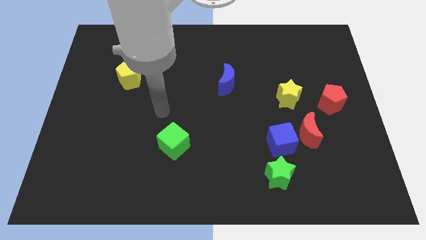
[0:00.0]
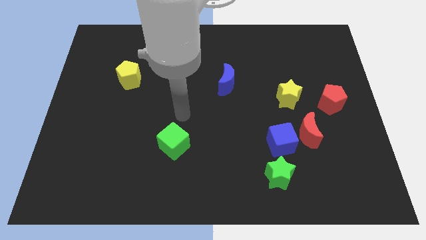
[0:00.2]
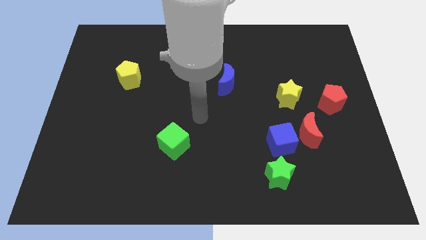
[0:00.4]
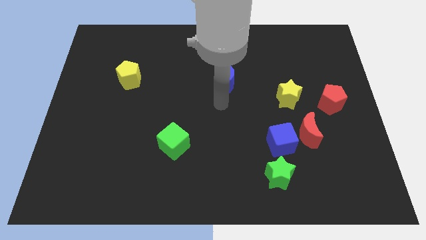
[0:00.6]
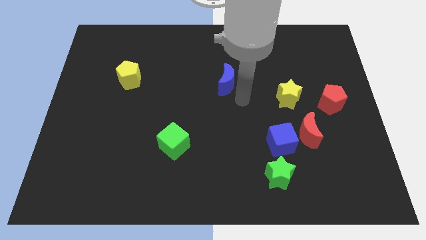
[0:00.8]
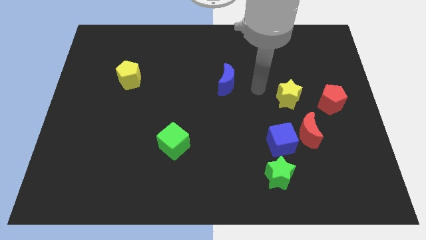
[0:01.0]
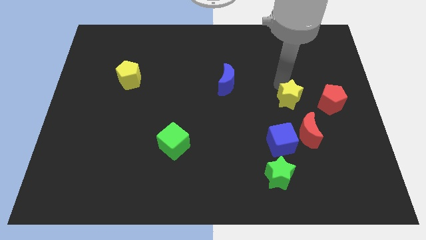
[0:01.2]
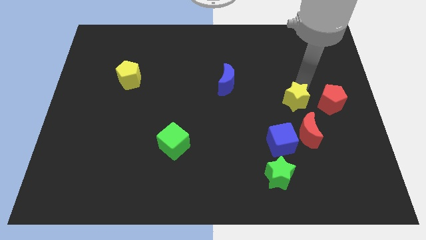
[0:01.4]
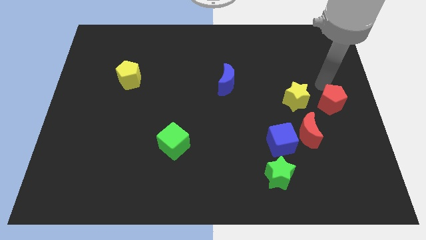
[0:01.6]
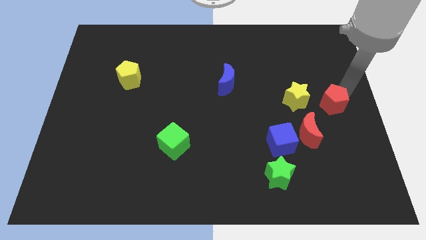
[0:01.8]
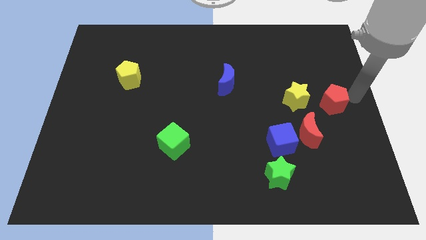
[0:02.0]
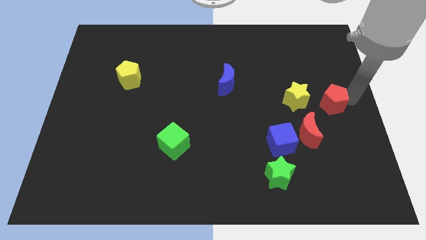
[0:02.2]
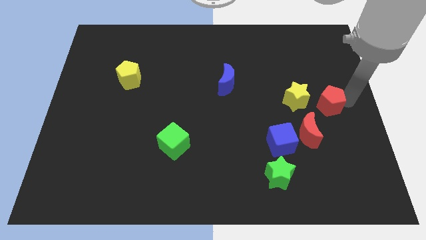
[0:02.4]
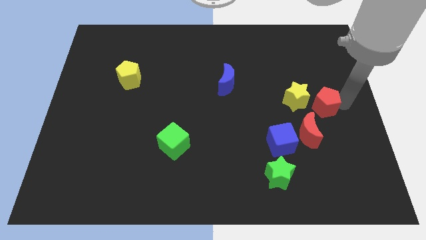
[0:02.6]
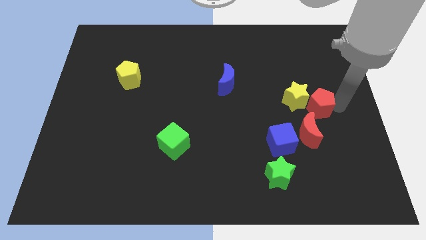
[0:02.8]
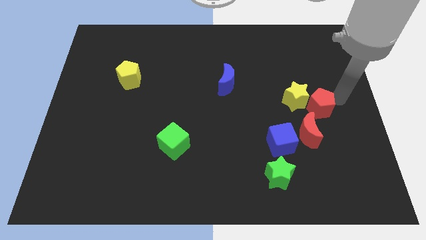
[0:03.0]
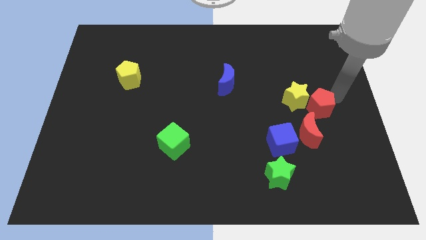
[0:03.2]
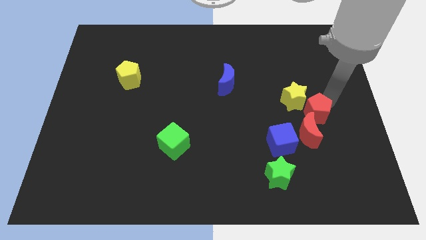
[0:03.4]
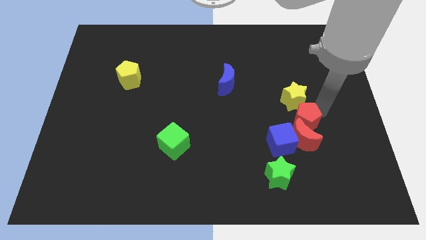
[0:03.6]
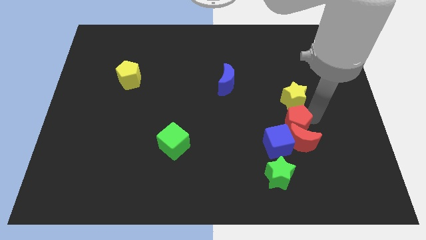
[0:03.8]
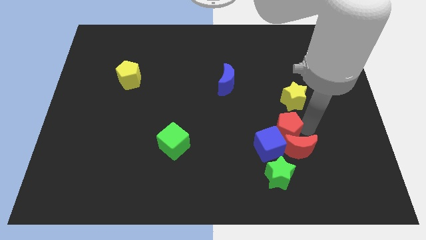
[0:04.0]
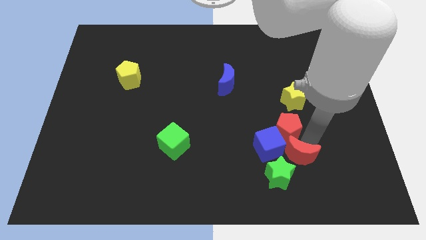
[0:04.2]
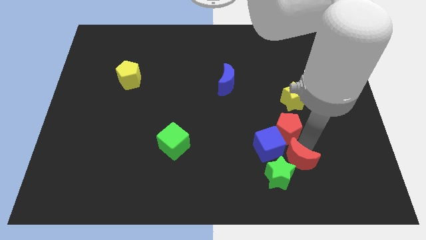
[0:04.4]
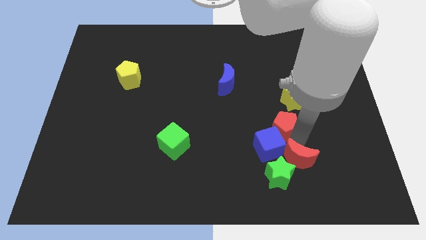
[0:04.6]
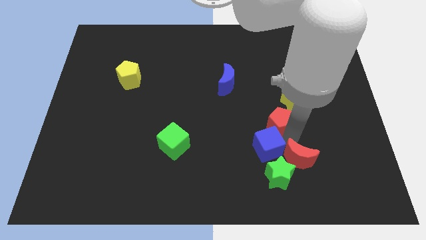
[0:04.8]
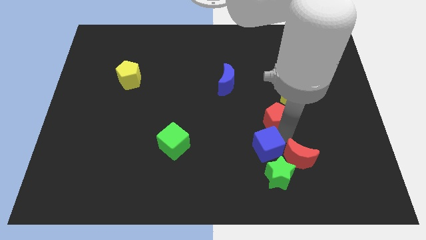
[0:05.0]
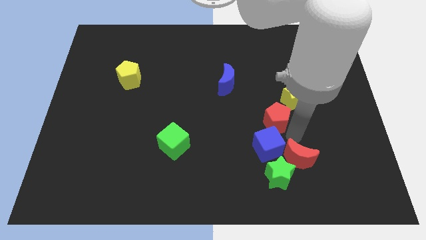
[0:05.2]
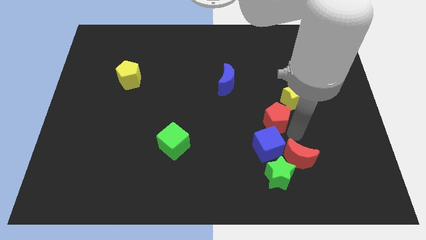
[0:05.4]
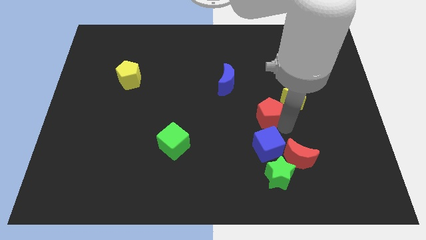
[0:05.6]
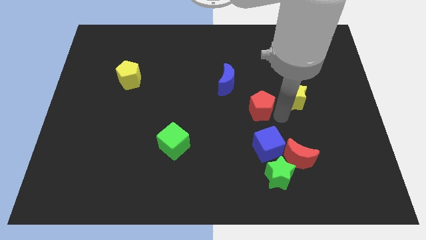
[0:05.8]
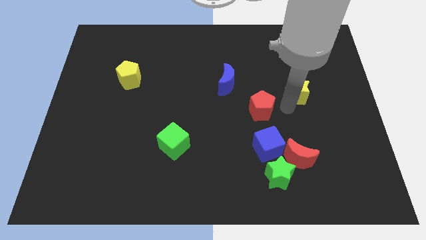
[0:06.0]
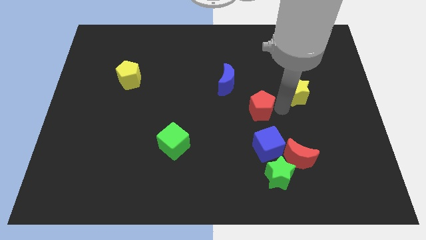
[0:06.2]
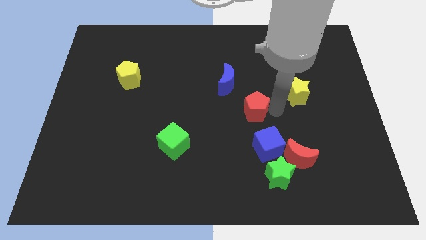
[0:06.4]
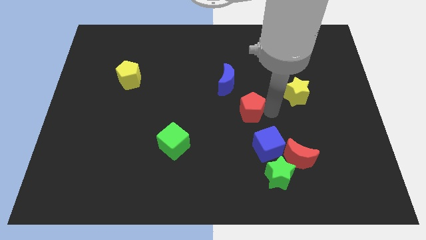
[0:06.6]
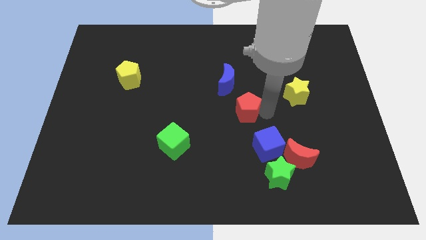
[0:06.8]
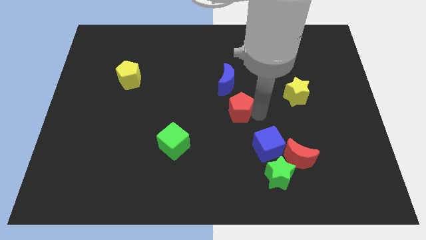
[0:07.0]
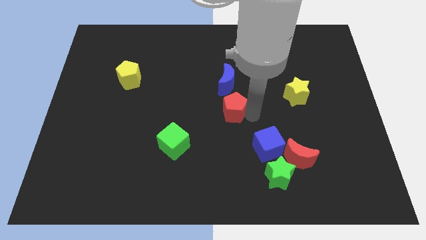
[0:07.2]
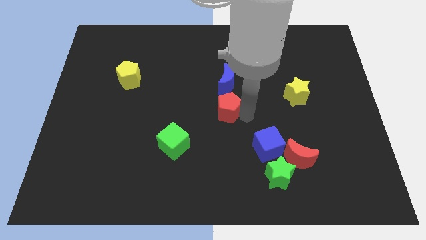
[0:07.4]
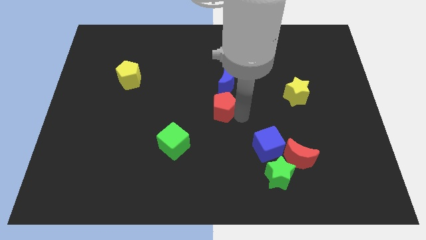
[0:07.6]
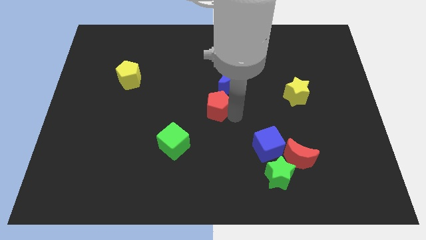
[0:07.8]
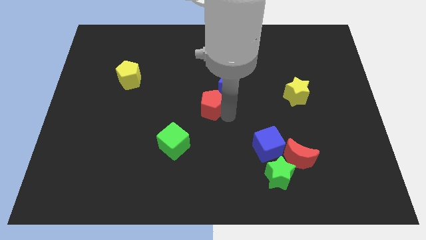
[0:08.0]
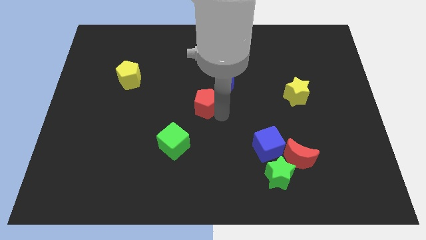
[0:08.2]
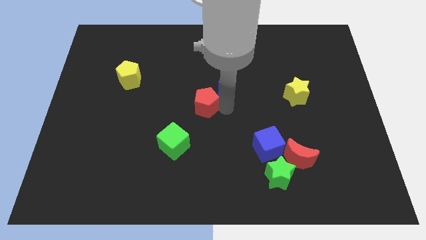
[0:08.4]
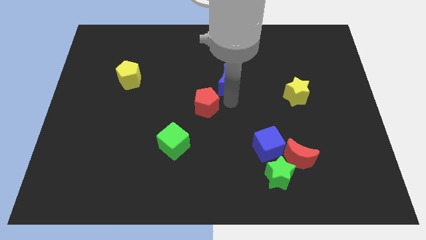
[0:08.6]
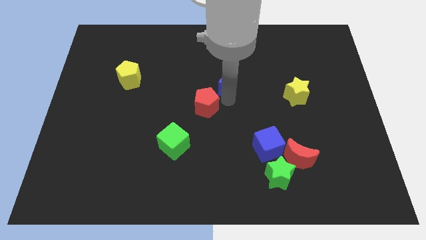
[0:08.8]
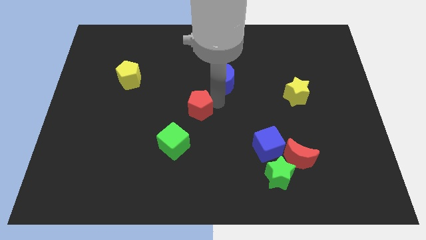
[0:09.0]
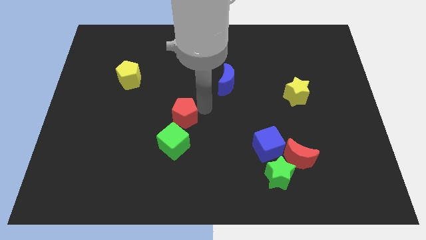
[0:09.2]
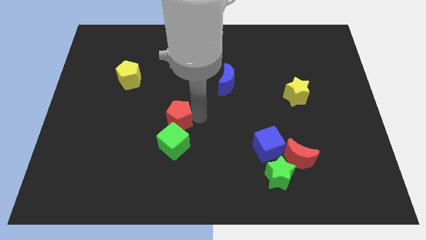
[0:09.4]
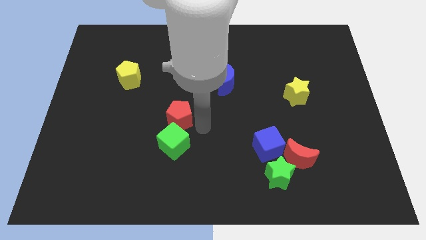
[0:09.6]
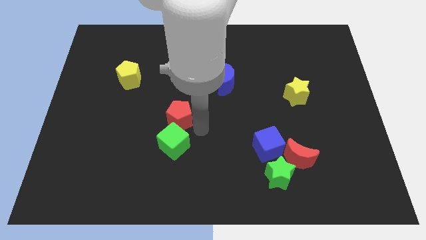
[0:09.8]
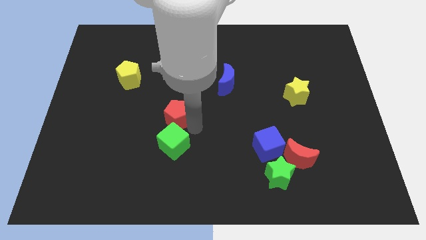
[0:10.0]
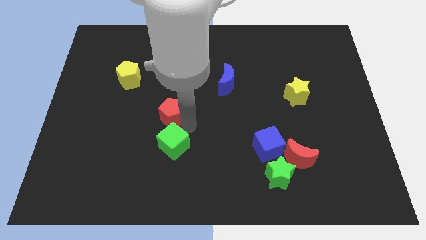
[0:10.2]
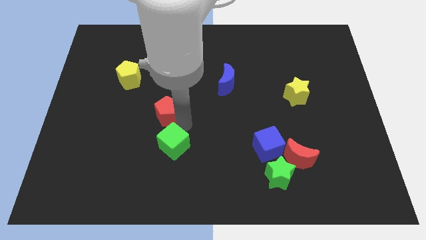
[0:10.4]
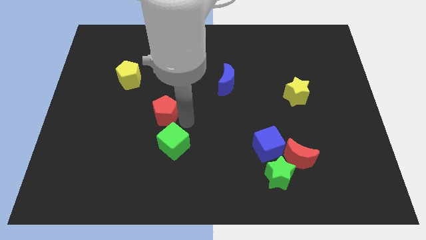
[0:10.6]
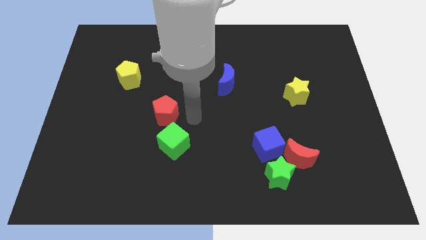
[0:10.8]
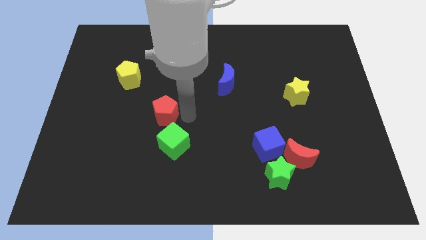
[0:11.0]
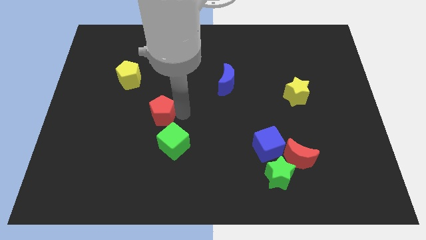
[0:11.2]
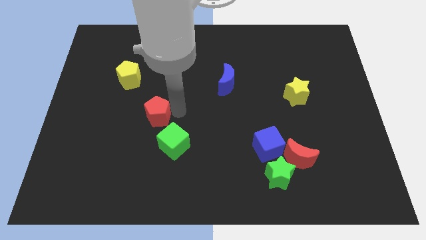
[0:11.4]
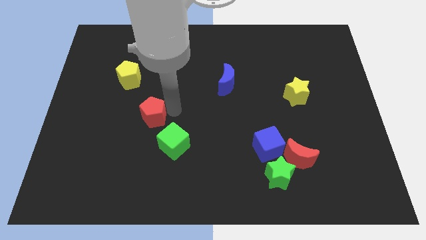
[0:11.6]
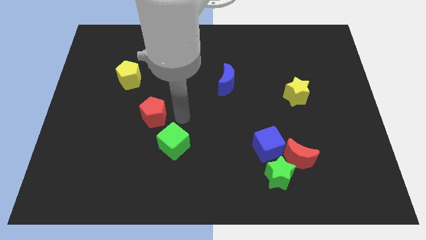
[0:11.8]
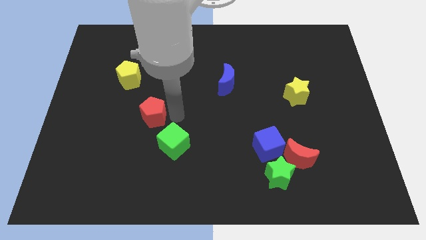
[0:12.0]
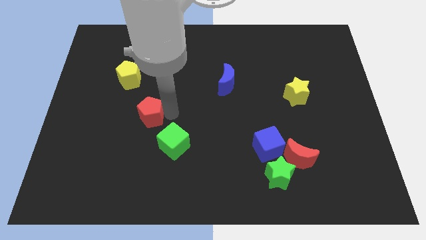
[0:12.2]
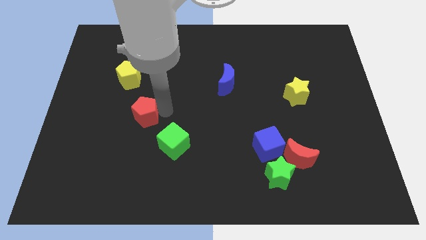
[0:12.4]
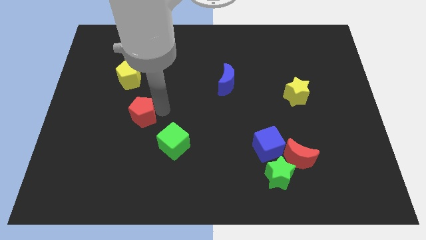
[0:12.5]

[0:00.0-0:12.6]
push the red pentagon below the yellow pentagon

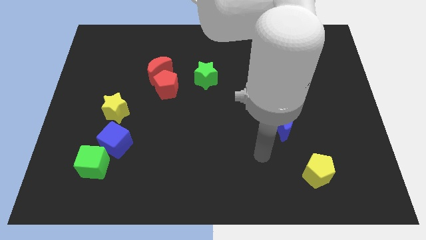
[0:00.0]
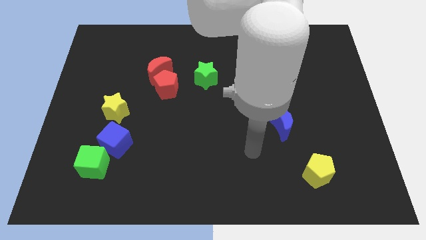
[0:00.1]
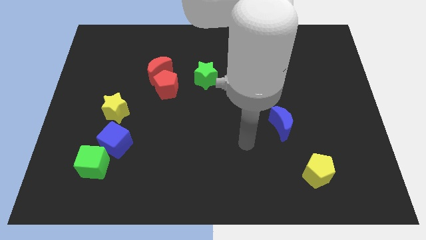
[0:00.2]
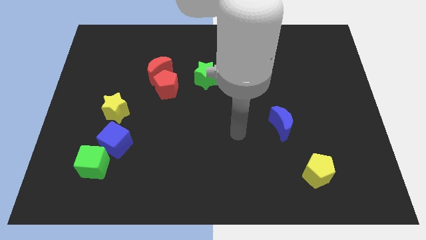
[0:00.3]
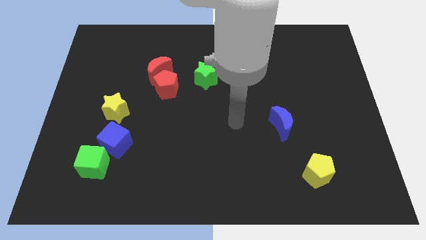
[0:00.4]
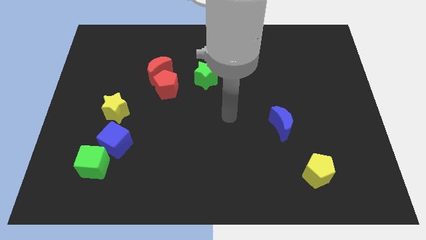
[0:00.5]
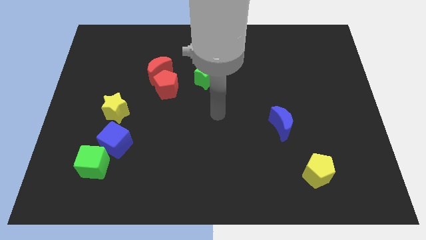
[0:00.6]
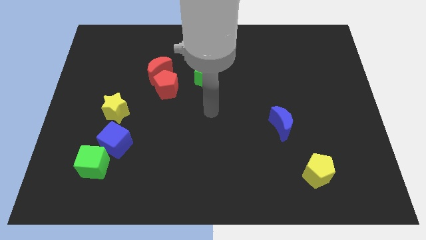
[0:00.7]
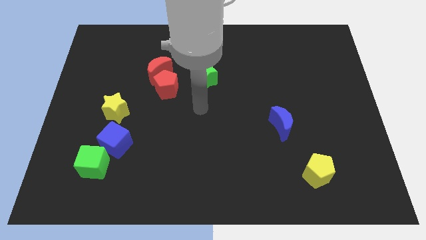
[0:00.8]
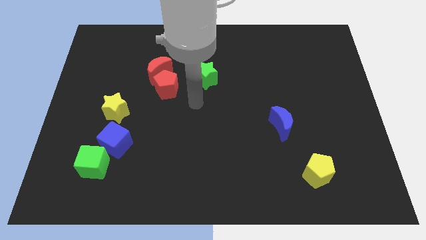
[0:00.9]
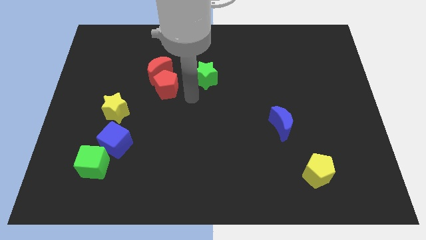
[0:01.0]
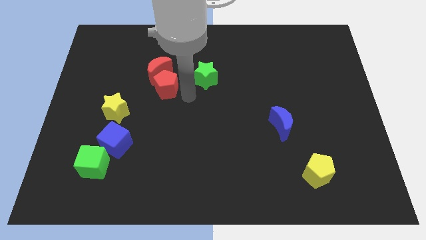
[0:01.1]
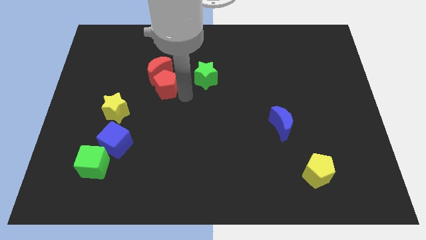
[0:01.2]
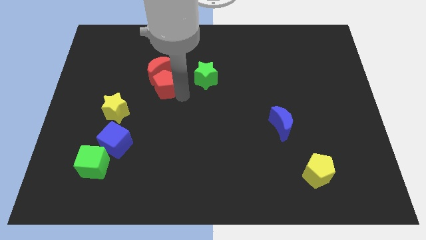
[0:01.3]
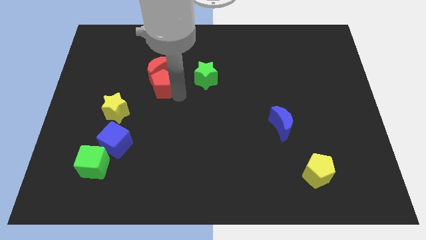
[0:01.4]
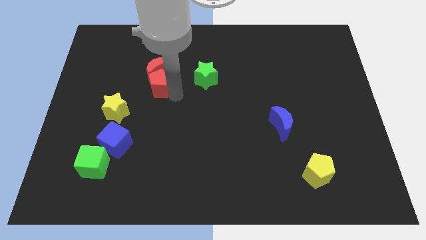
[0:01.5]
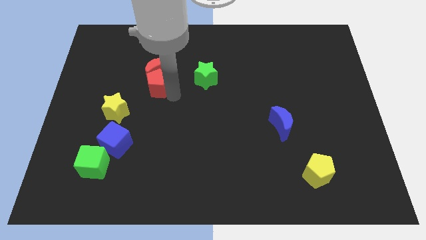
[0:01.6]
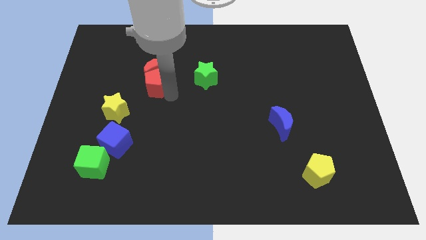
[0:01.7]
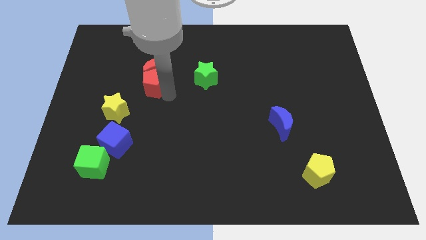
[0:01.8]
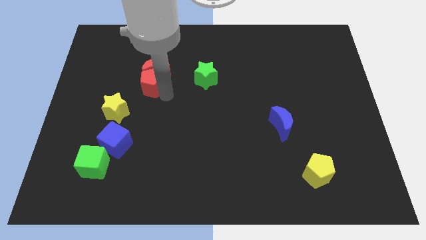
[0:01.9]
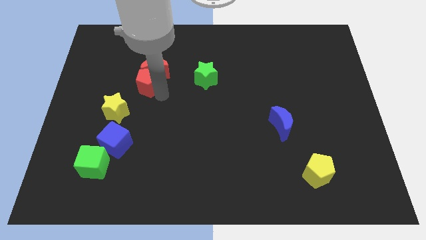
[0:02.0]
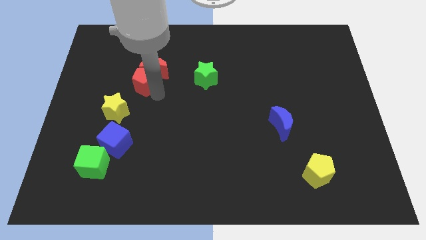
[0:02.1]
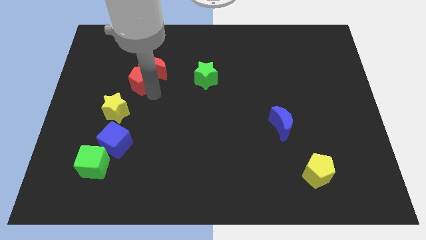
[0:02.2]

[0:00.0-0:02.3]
put the red pentagon to the left side of the red moon
